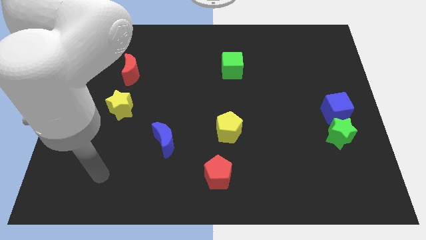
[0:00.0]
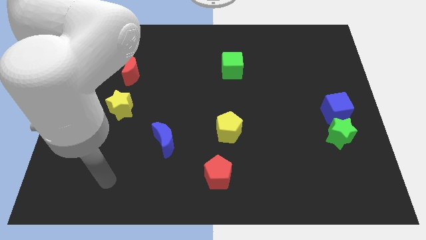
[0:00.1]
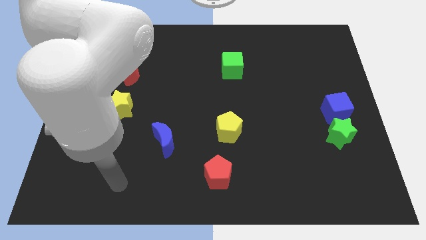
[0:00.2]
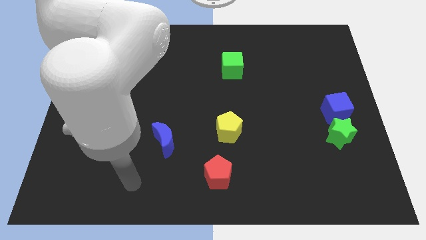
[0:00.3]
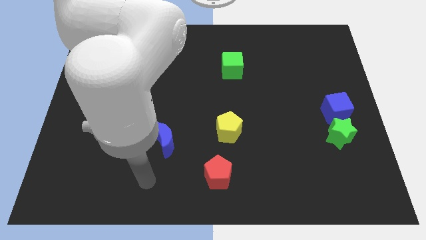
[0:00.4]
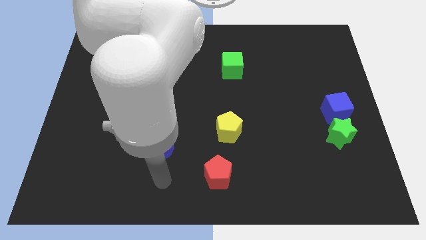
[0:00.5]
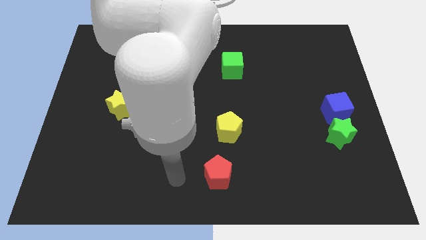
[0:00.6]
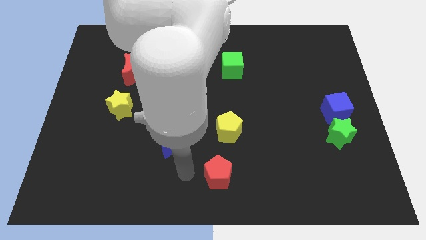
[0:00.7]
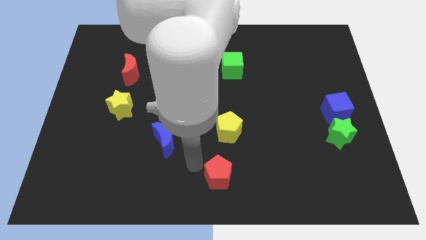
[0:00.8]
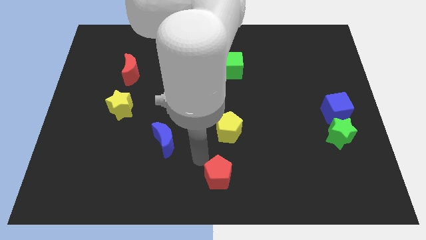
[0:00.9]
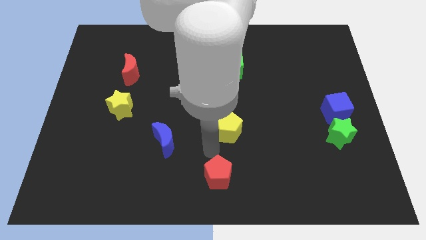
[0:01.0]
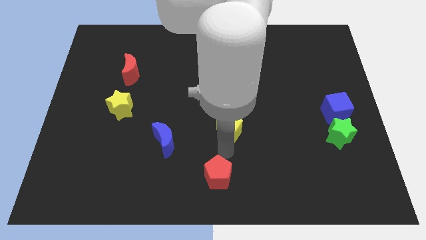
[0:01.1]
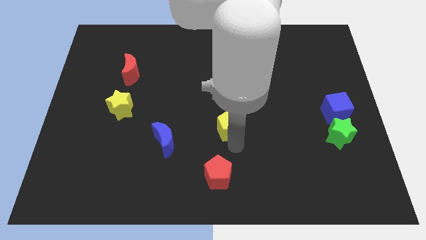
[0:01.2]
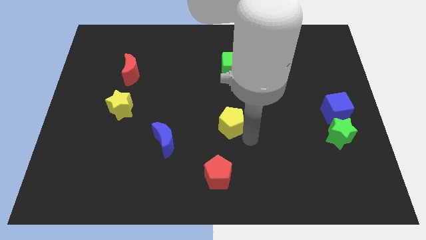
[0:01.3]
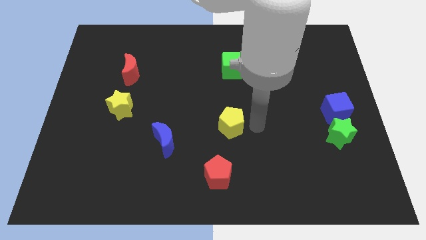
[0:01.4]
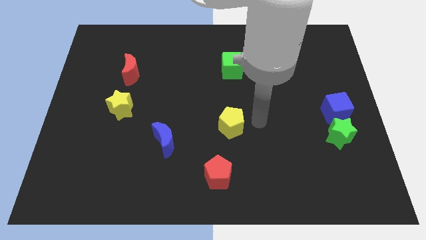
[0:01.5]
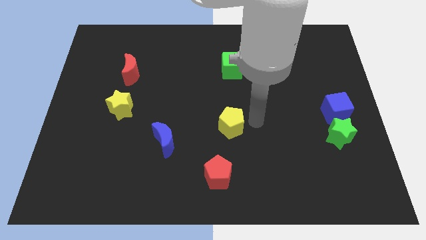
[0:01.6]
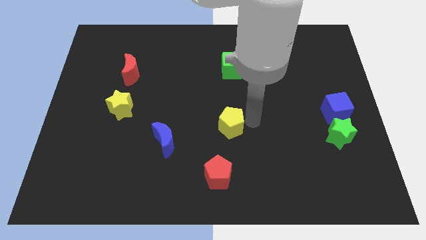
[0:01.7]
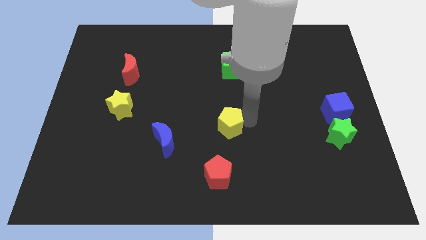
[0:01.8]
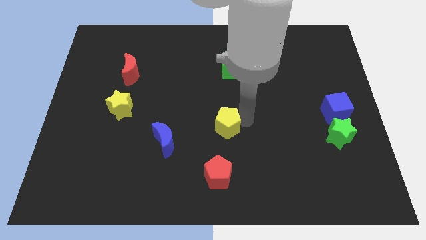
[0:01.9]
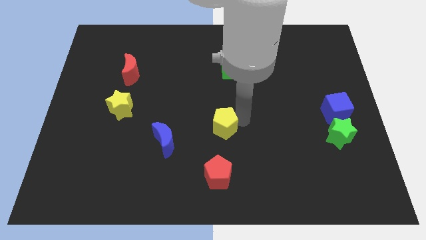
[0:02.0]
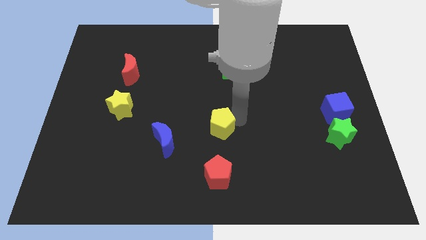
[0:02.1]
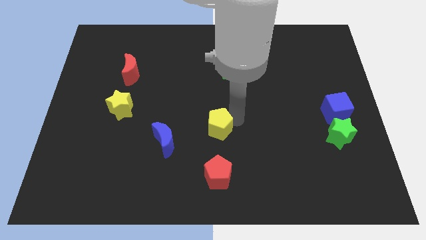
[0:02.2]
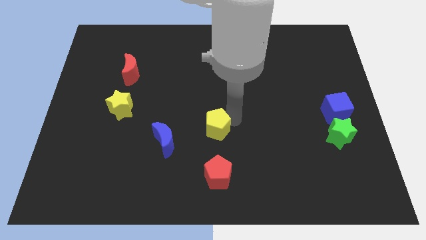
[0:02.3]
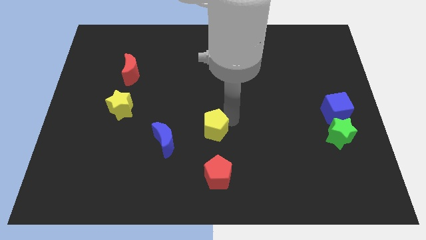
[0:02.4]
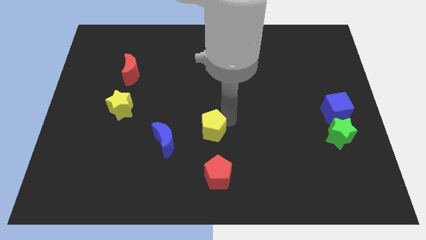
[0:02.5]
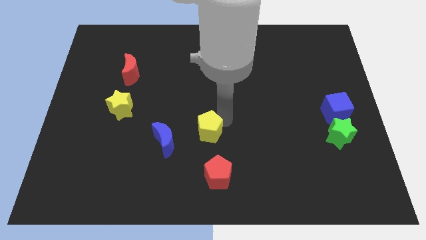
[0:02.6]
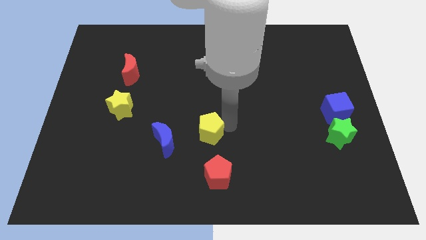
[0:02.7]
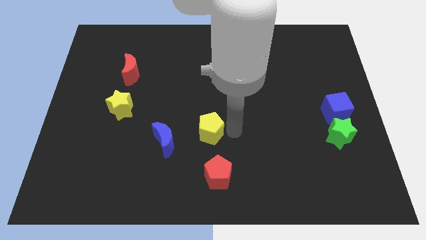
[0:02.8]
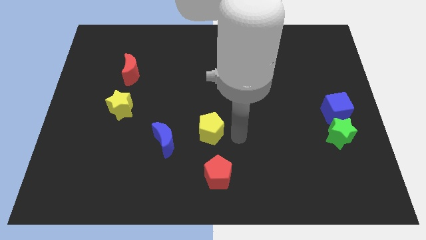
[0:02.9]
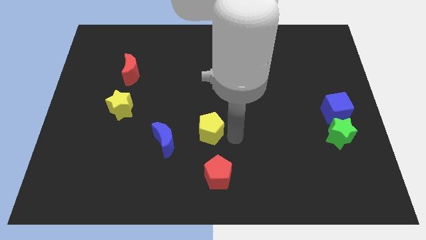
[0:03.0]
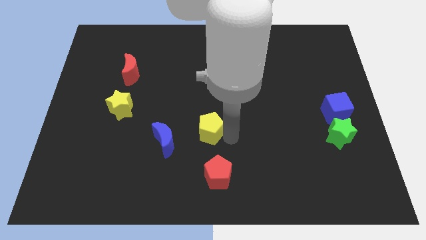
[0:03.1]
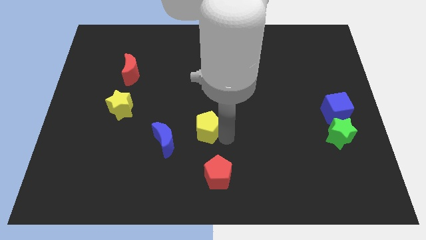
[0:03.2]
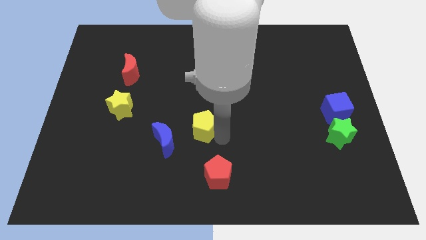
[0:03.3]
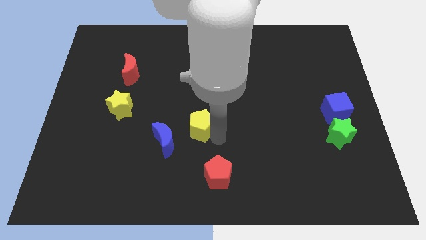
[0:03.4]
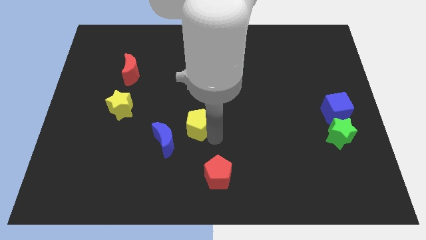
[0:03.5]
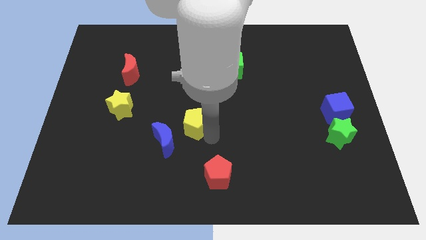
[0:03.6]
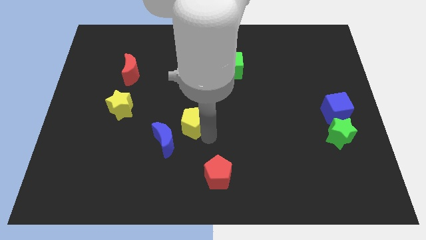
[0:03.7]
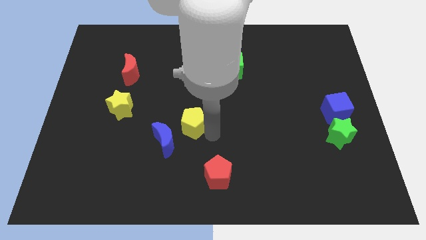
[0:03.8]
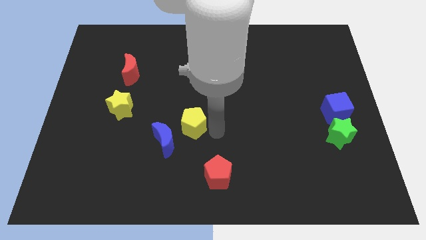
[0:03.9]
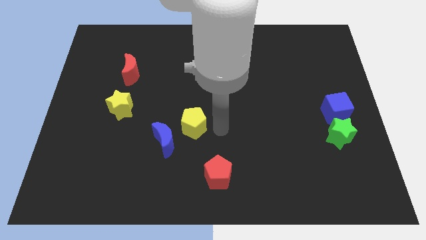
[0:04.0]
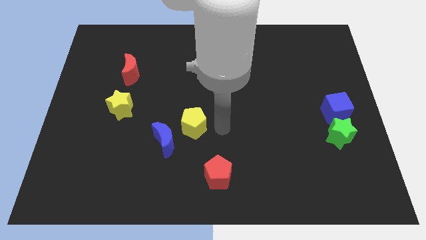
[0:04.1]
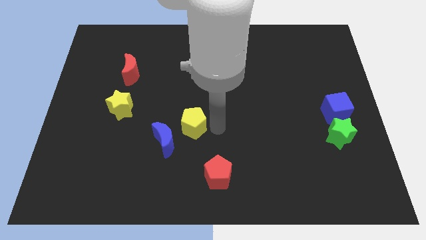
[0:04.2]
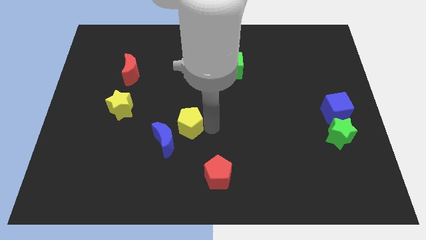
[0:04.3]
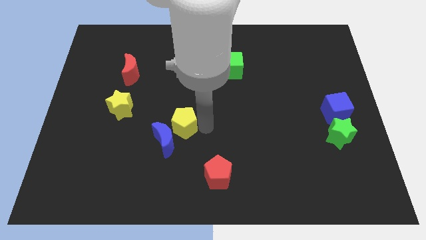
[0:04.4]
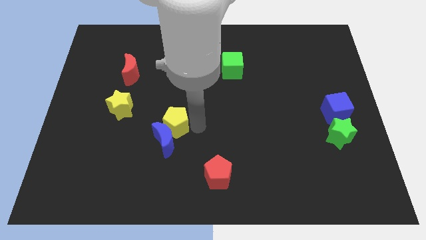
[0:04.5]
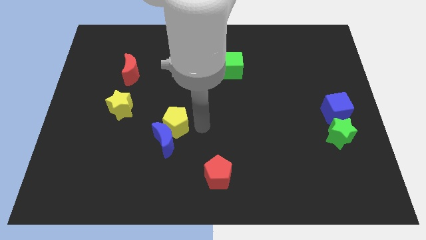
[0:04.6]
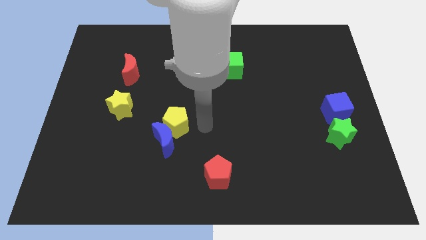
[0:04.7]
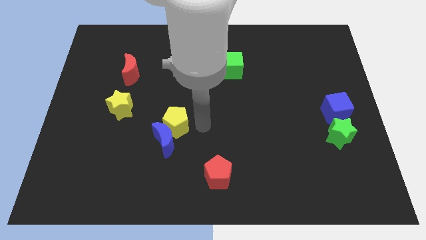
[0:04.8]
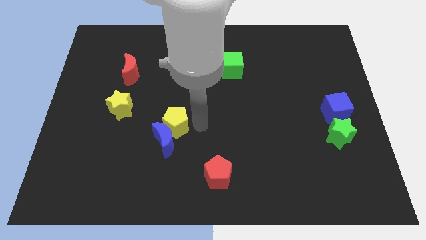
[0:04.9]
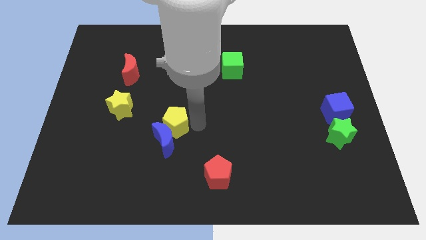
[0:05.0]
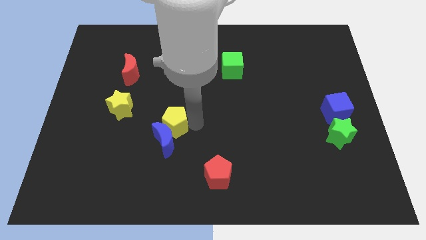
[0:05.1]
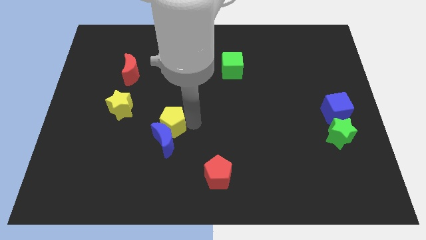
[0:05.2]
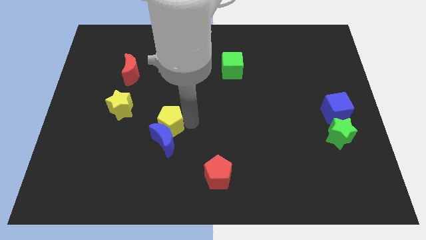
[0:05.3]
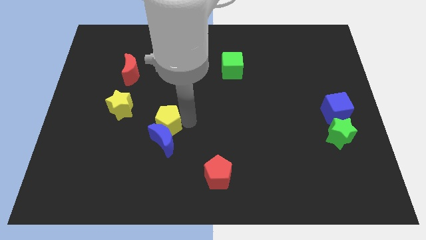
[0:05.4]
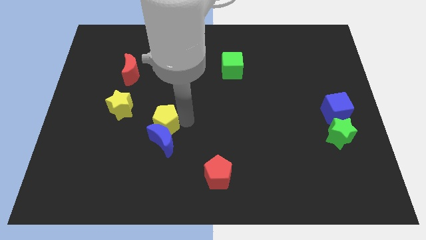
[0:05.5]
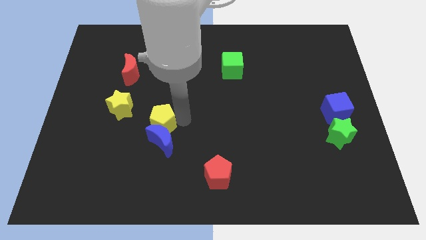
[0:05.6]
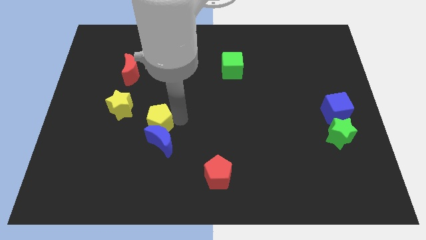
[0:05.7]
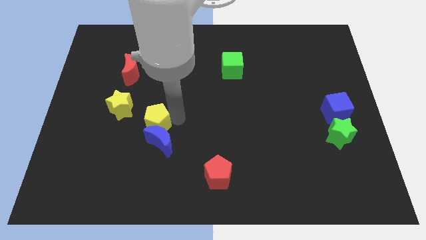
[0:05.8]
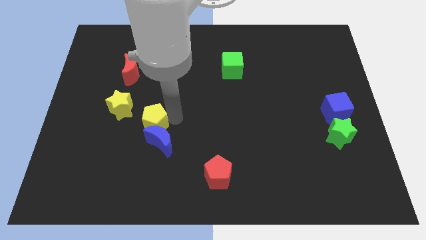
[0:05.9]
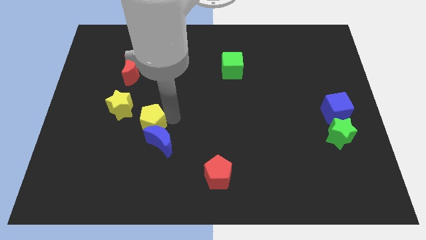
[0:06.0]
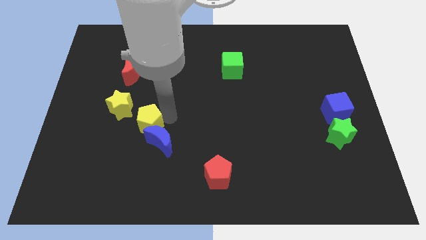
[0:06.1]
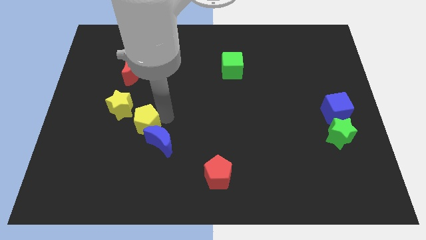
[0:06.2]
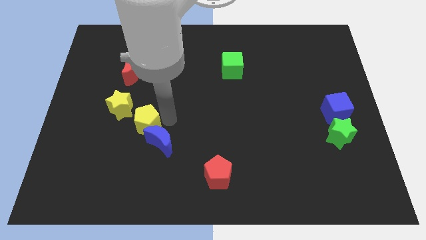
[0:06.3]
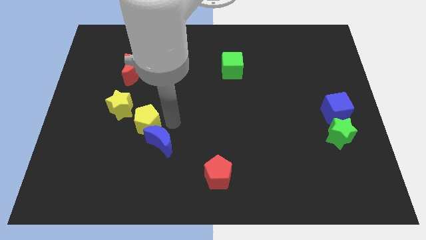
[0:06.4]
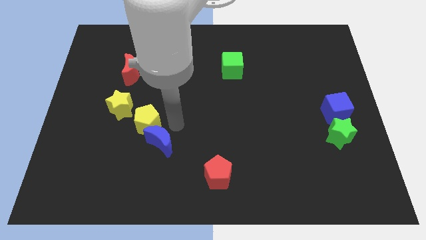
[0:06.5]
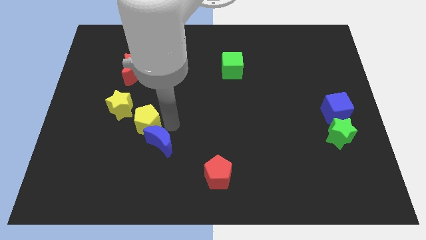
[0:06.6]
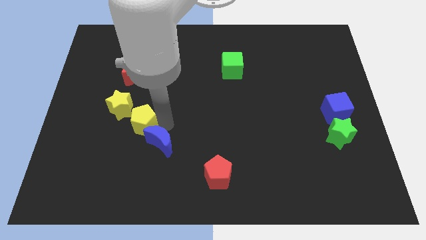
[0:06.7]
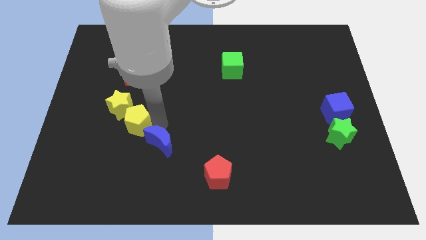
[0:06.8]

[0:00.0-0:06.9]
move the yellow pentagon to the left

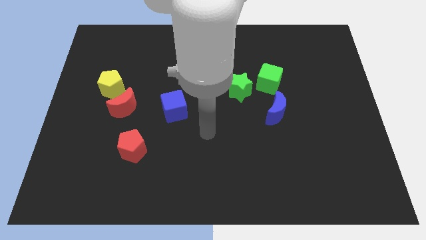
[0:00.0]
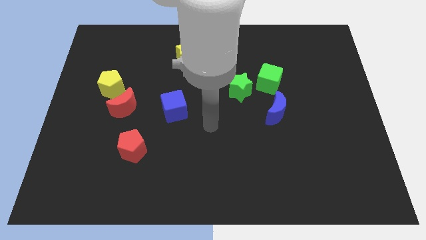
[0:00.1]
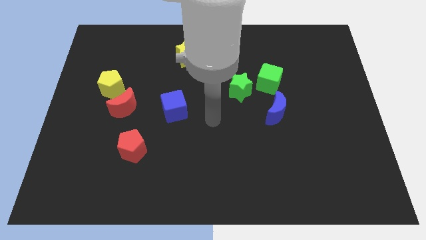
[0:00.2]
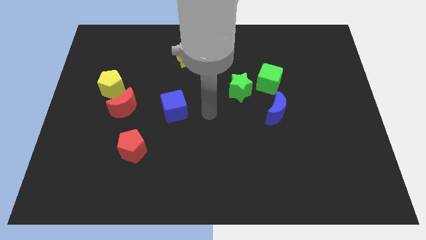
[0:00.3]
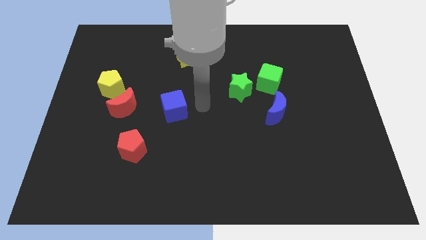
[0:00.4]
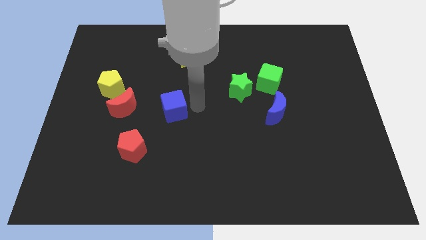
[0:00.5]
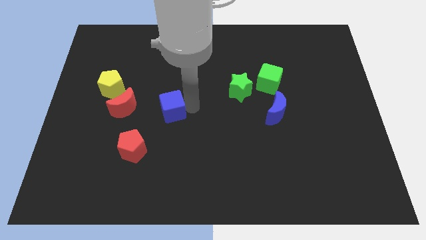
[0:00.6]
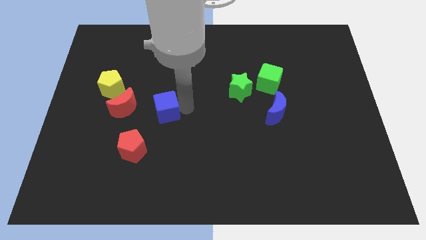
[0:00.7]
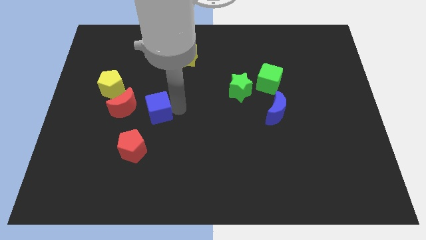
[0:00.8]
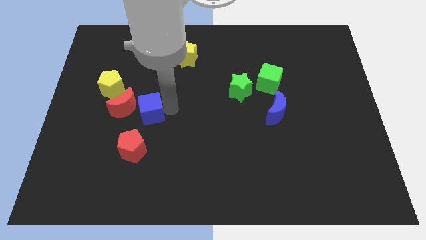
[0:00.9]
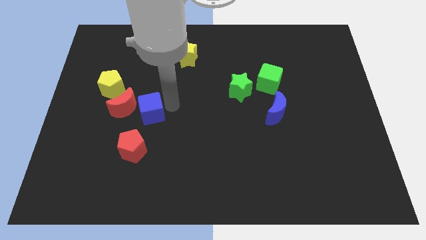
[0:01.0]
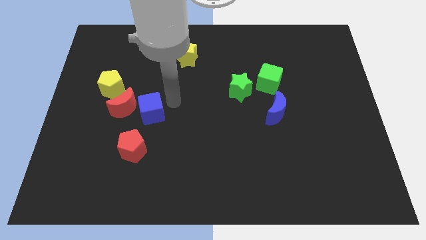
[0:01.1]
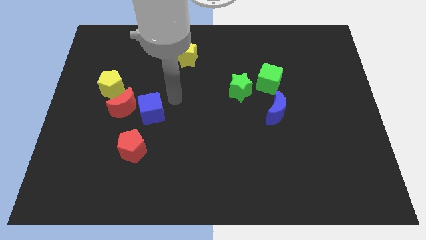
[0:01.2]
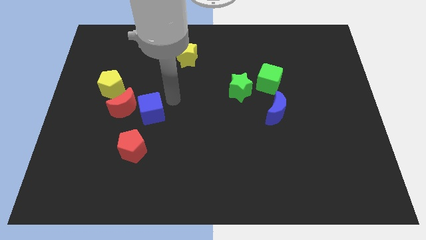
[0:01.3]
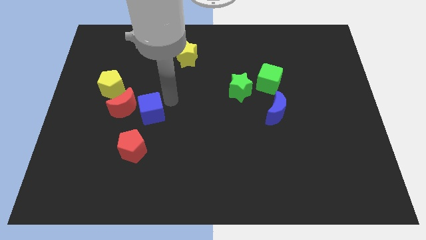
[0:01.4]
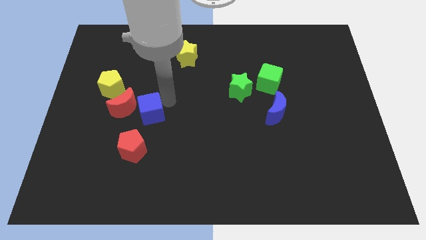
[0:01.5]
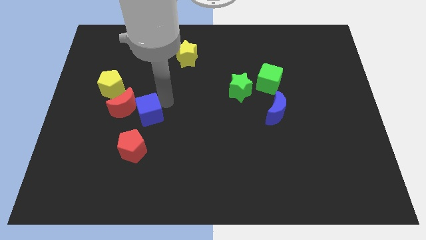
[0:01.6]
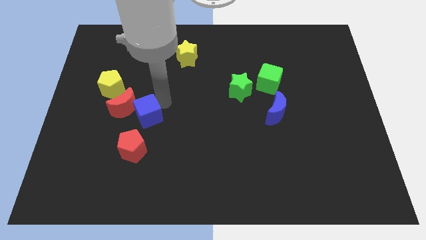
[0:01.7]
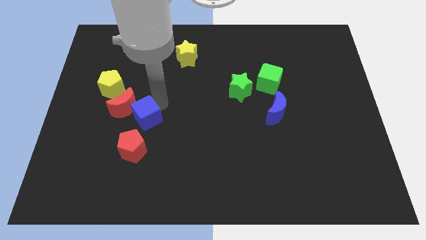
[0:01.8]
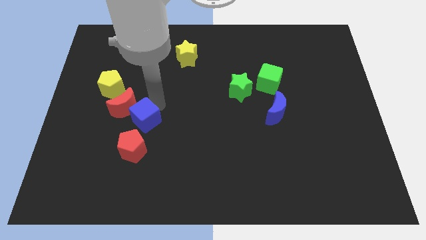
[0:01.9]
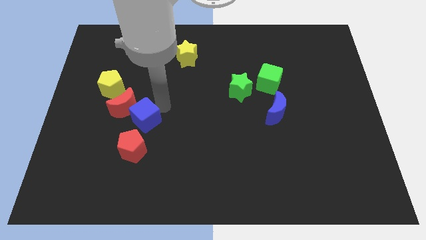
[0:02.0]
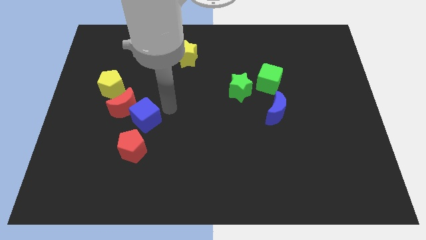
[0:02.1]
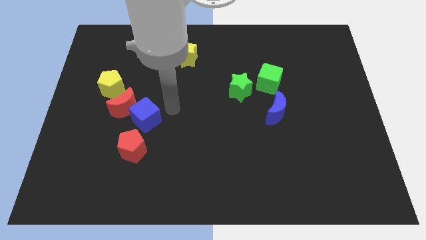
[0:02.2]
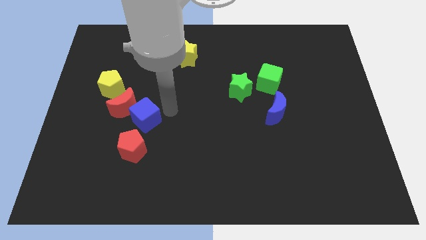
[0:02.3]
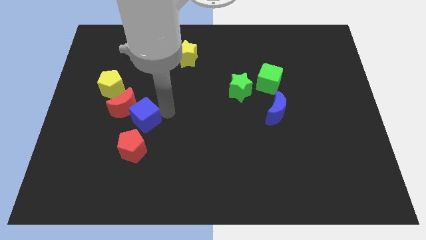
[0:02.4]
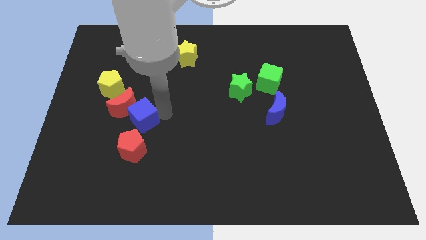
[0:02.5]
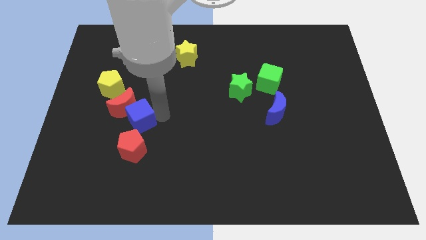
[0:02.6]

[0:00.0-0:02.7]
move the blue cube somewhat downwards and to the left diagonally
